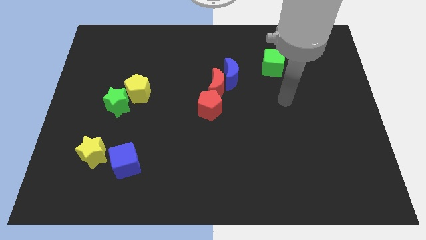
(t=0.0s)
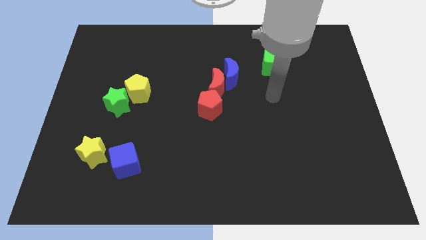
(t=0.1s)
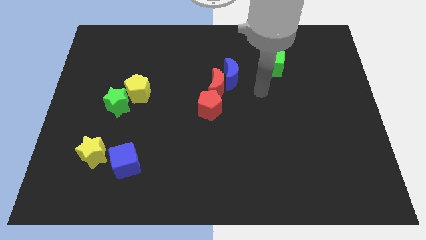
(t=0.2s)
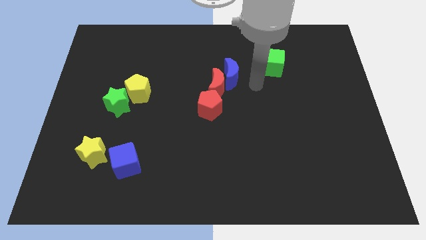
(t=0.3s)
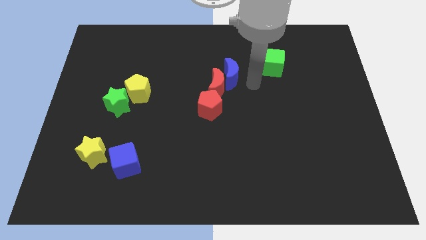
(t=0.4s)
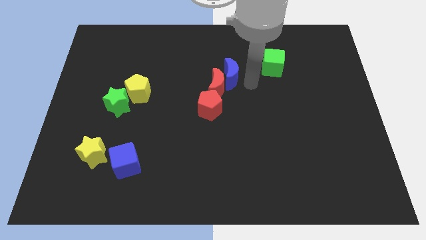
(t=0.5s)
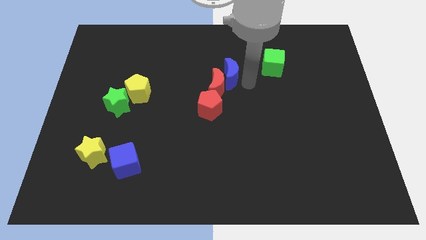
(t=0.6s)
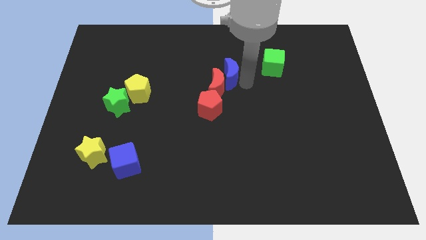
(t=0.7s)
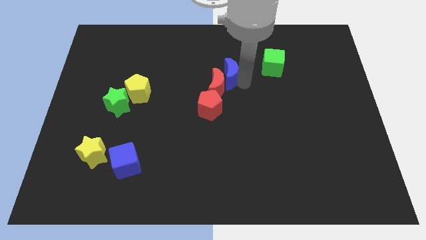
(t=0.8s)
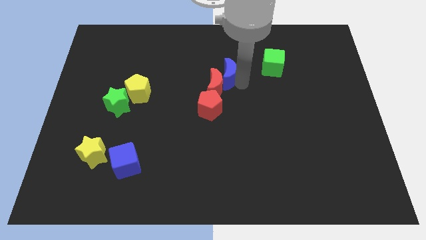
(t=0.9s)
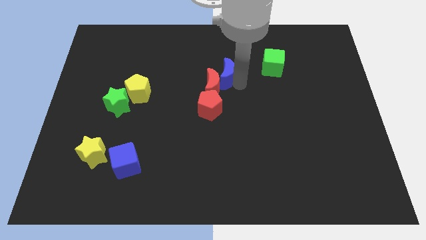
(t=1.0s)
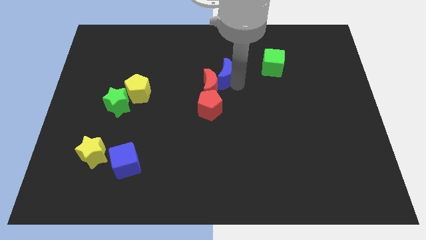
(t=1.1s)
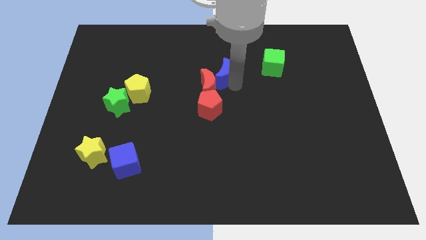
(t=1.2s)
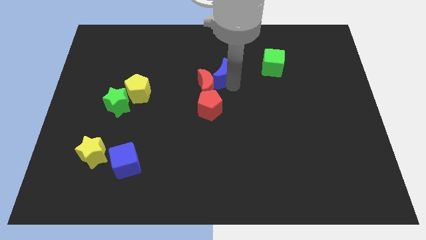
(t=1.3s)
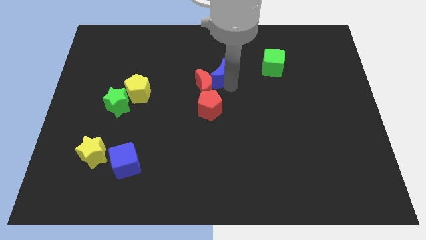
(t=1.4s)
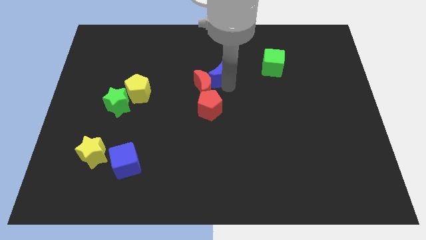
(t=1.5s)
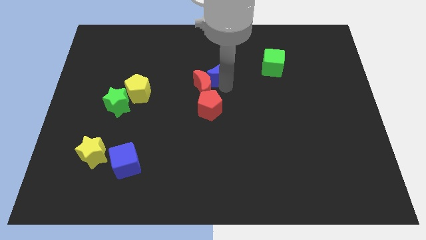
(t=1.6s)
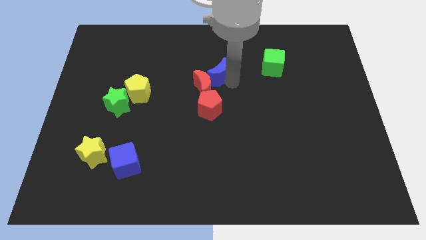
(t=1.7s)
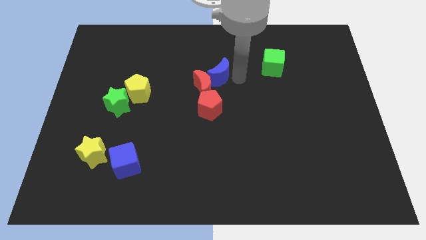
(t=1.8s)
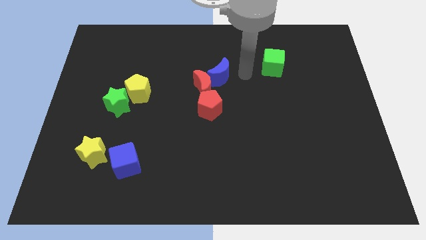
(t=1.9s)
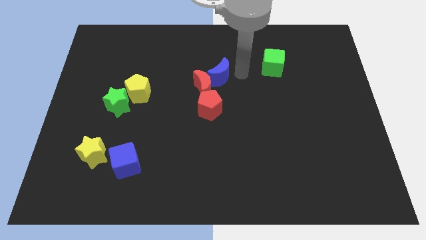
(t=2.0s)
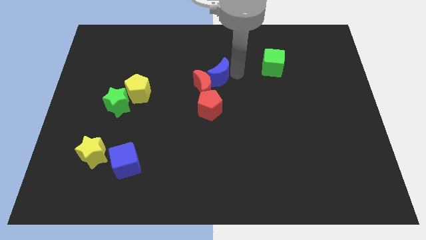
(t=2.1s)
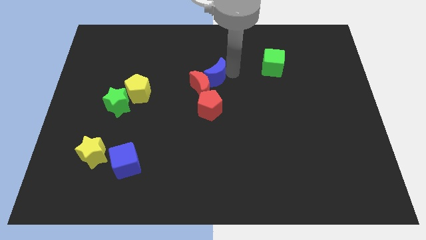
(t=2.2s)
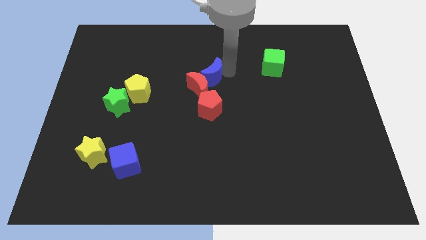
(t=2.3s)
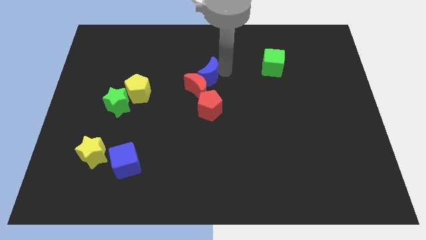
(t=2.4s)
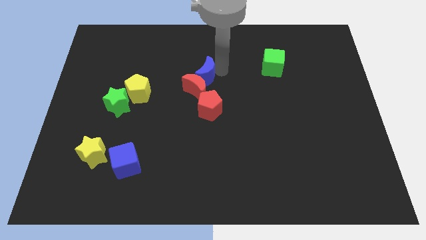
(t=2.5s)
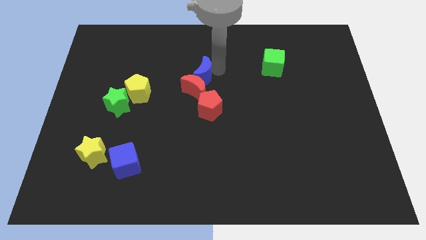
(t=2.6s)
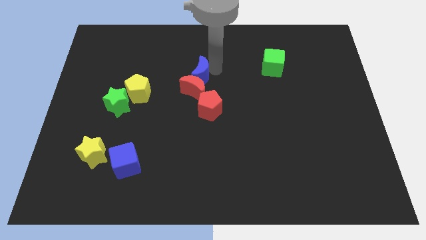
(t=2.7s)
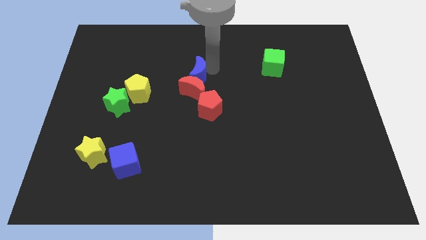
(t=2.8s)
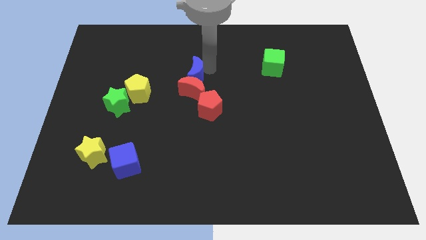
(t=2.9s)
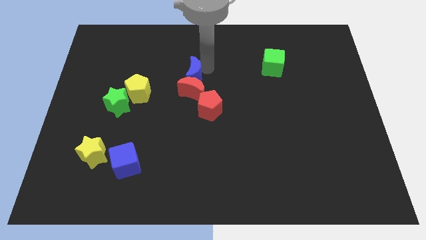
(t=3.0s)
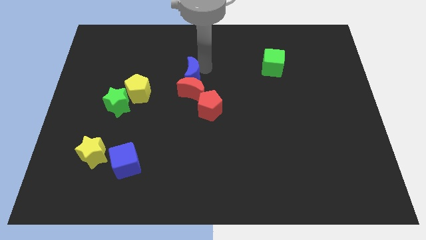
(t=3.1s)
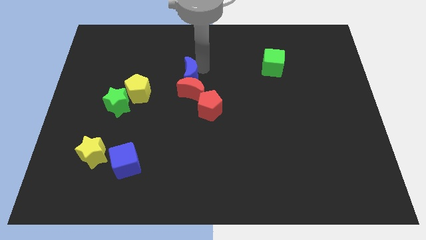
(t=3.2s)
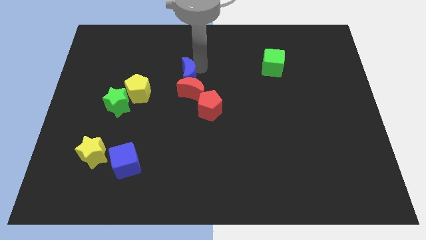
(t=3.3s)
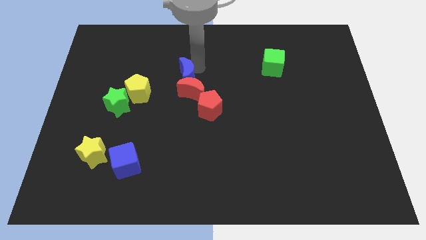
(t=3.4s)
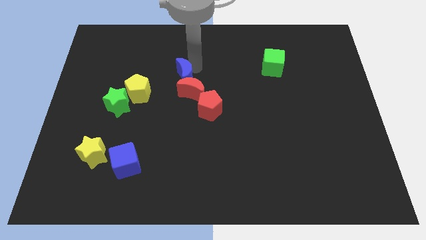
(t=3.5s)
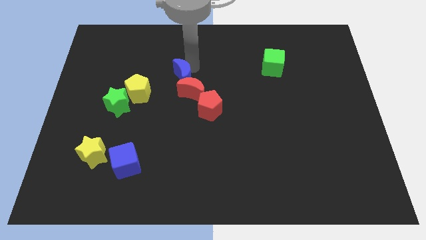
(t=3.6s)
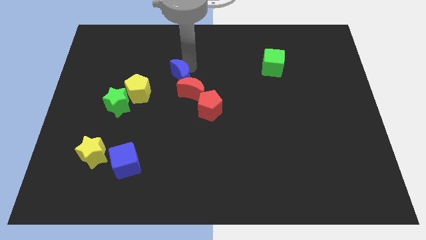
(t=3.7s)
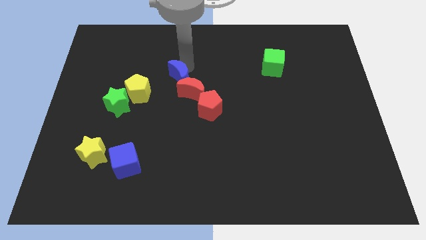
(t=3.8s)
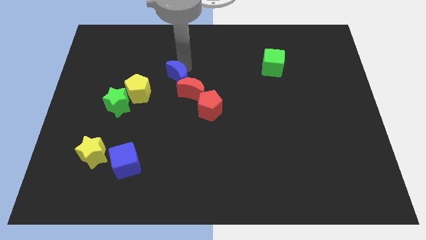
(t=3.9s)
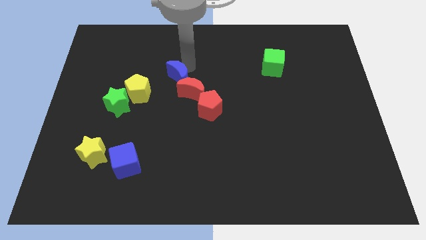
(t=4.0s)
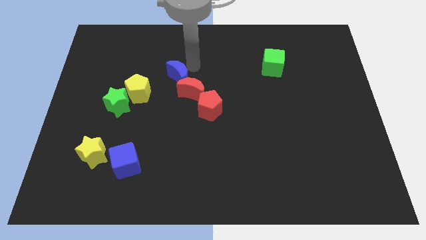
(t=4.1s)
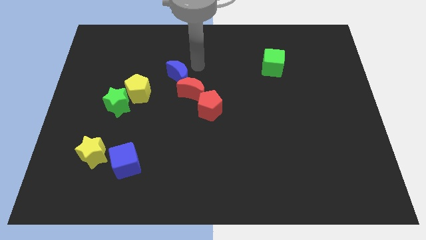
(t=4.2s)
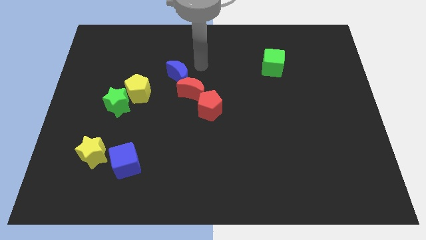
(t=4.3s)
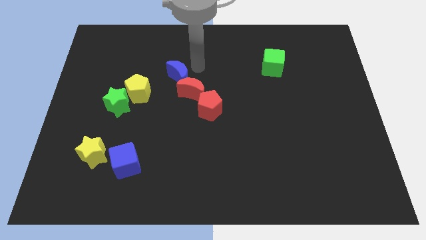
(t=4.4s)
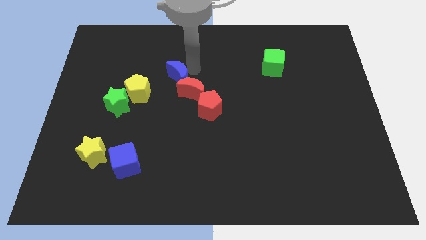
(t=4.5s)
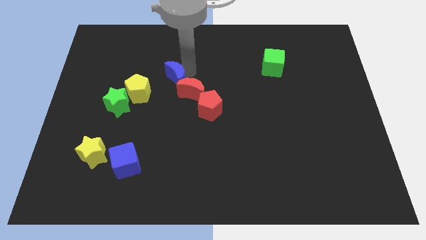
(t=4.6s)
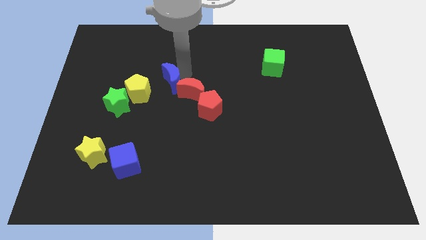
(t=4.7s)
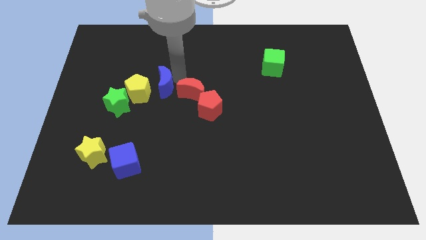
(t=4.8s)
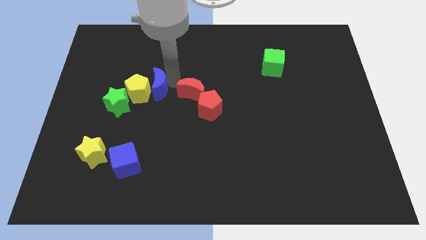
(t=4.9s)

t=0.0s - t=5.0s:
push the blue moon towards the yellow pentagon

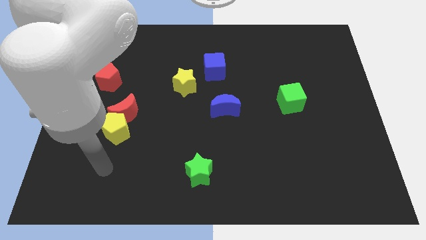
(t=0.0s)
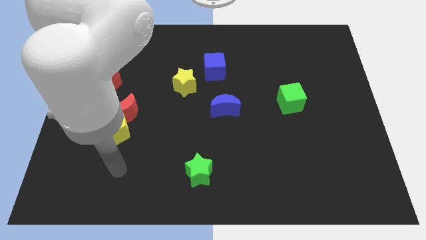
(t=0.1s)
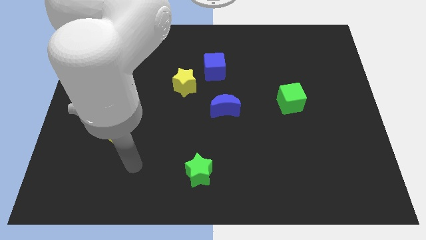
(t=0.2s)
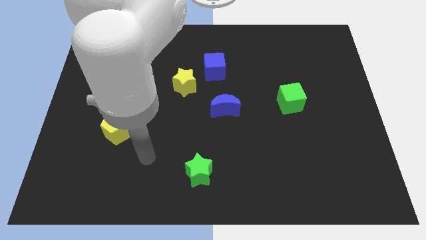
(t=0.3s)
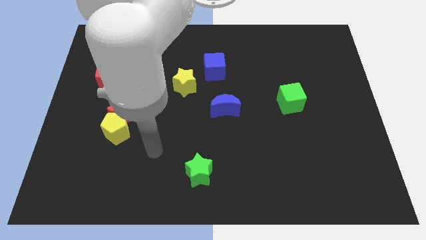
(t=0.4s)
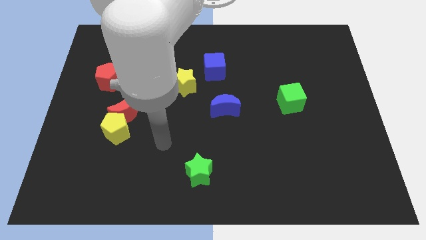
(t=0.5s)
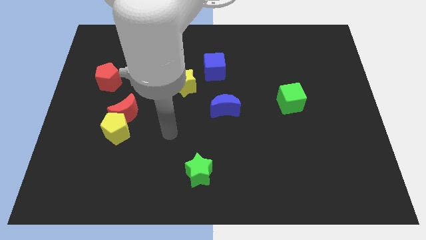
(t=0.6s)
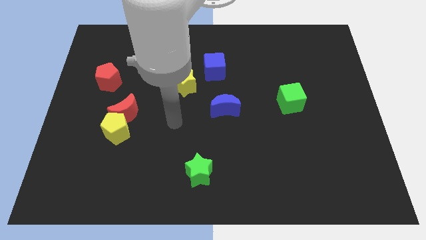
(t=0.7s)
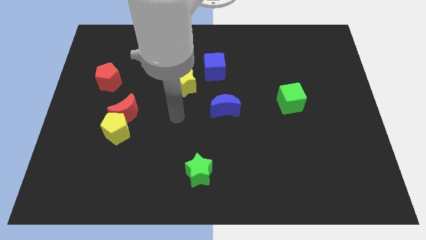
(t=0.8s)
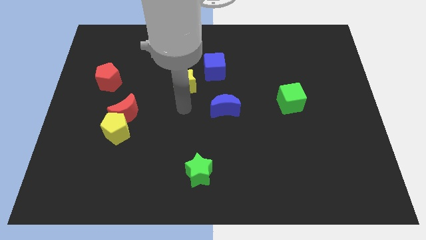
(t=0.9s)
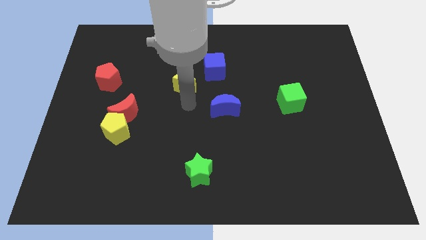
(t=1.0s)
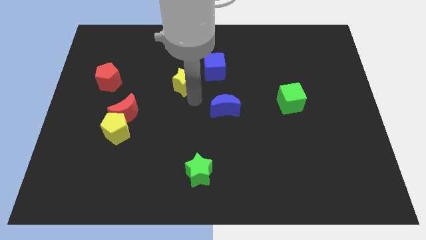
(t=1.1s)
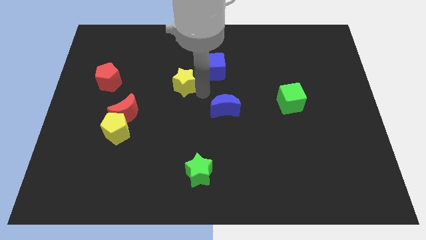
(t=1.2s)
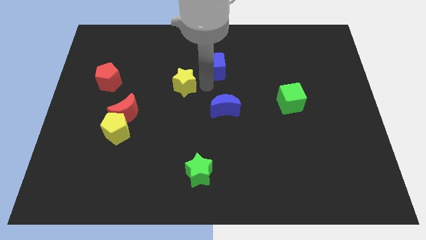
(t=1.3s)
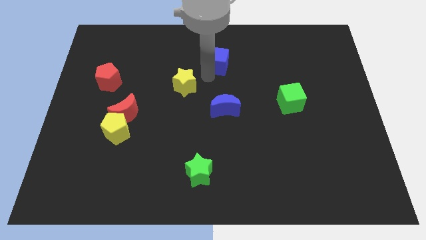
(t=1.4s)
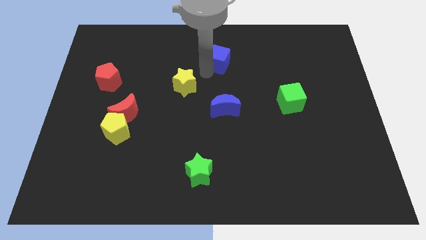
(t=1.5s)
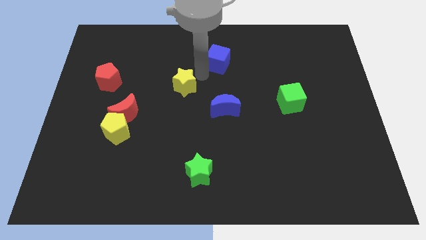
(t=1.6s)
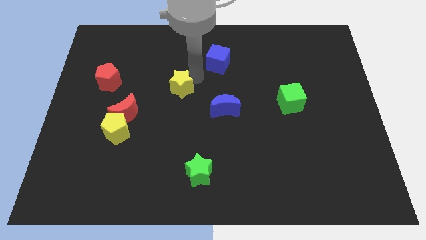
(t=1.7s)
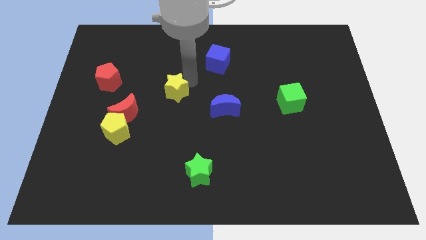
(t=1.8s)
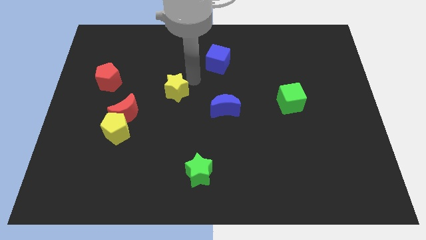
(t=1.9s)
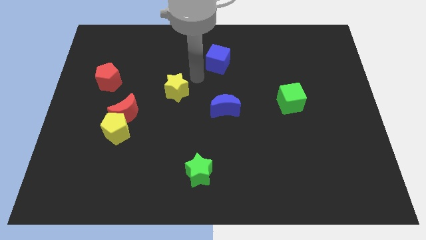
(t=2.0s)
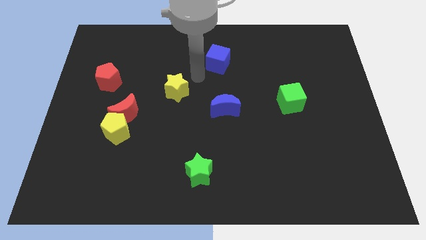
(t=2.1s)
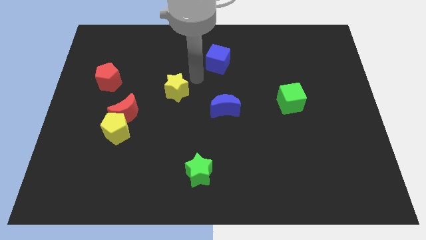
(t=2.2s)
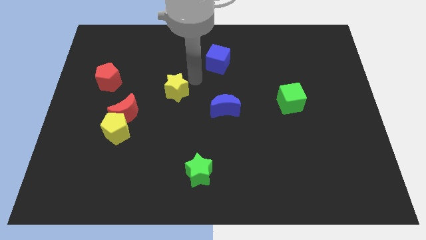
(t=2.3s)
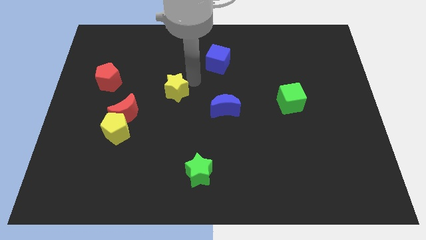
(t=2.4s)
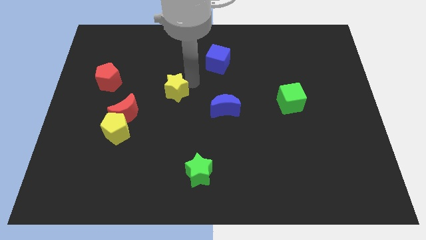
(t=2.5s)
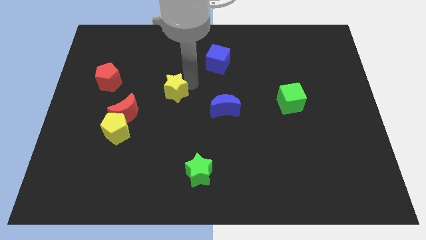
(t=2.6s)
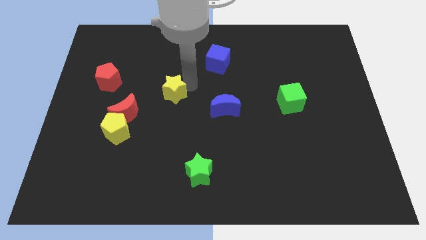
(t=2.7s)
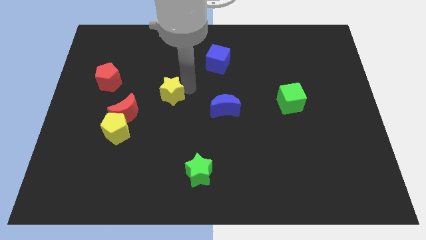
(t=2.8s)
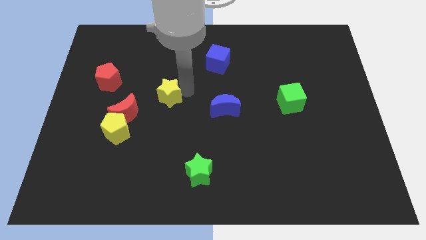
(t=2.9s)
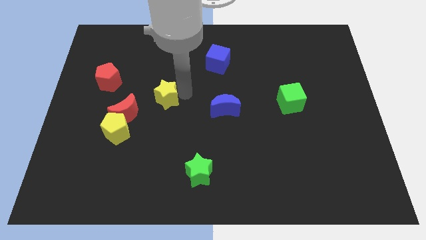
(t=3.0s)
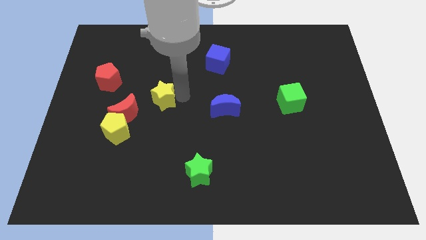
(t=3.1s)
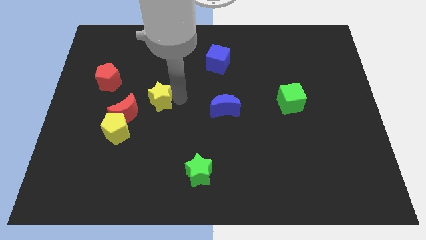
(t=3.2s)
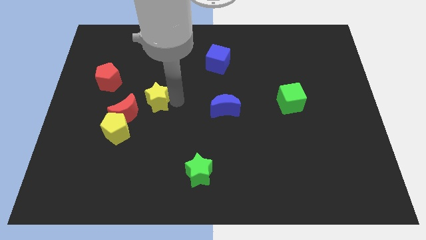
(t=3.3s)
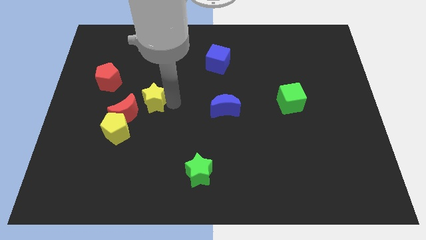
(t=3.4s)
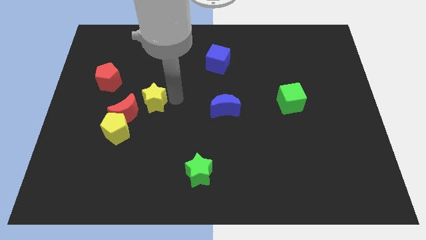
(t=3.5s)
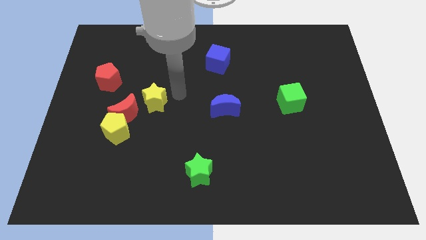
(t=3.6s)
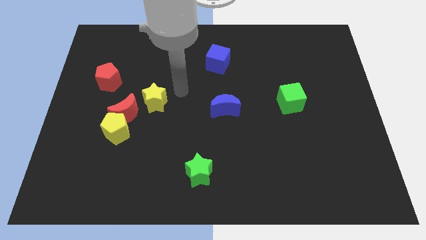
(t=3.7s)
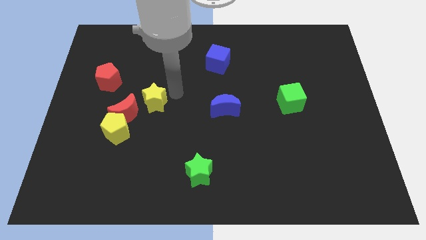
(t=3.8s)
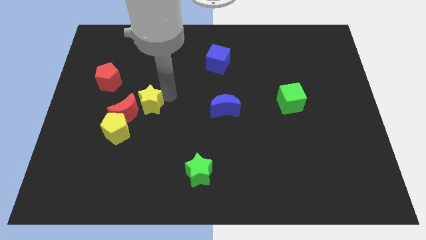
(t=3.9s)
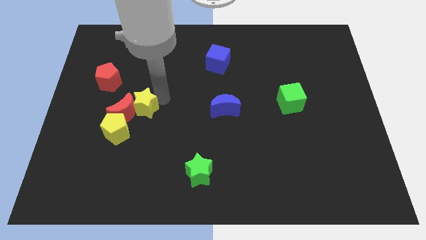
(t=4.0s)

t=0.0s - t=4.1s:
put the yellow star towards the red moon
